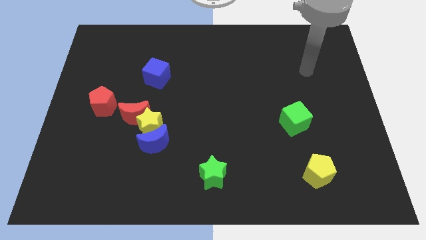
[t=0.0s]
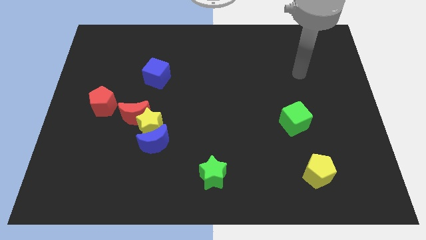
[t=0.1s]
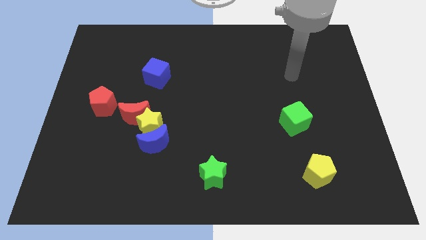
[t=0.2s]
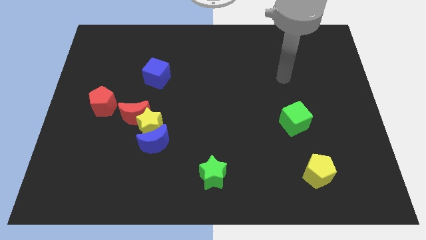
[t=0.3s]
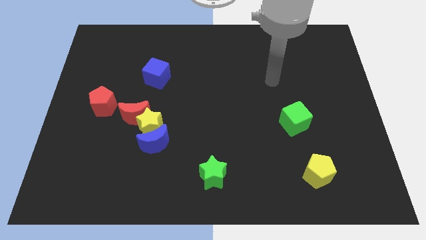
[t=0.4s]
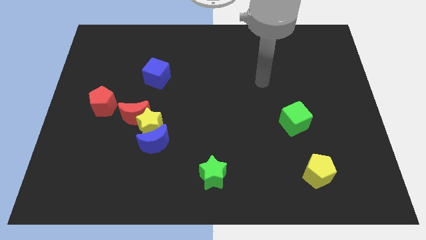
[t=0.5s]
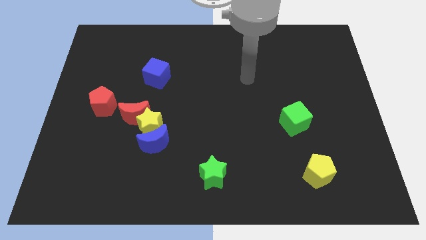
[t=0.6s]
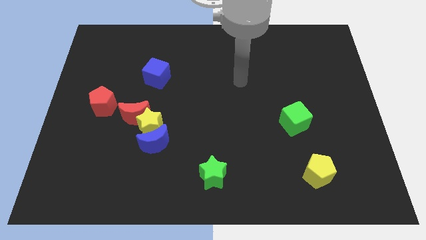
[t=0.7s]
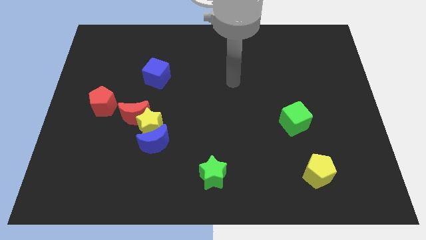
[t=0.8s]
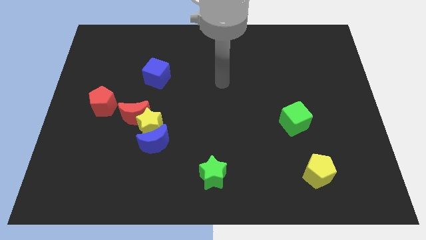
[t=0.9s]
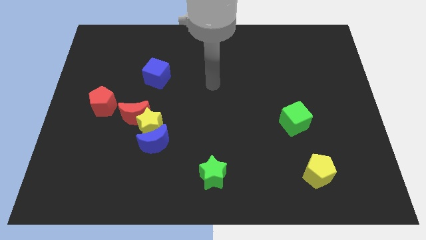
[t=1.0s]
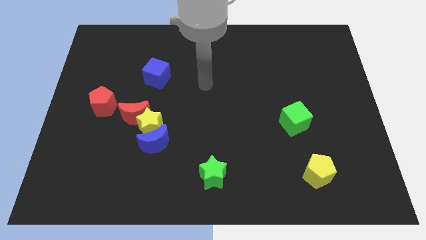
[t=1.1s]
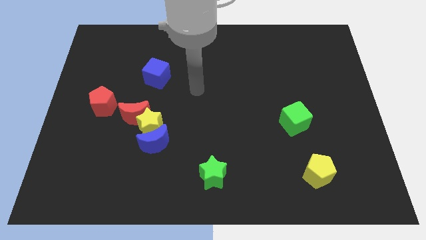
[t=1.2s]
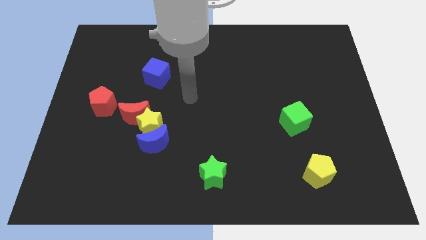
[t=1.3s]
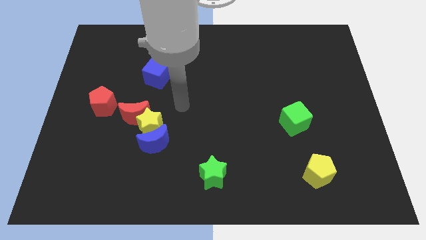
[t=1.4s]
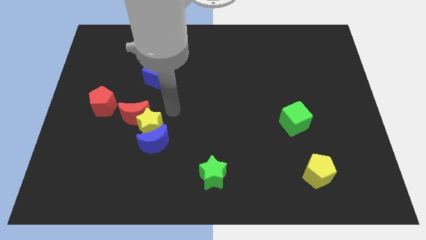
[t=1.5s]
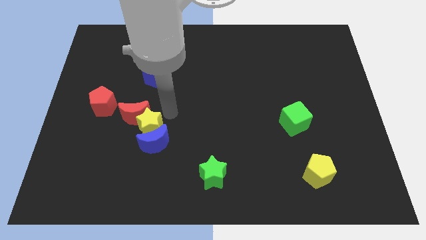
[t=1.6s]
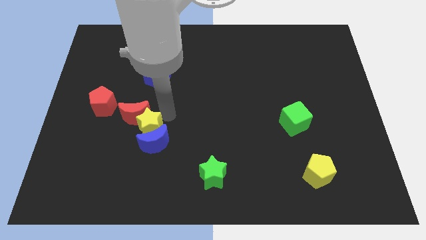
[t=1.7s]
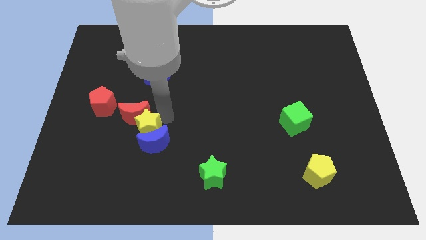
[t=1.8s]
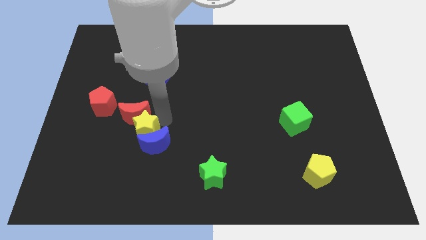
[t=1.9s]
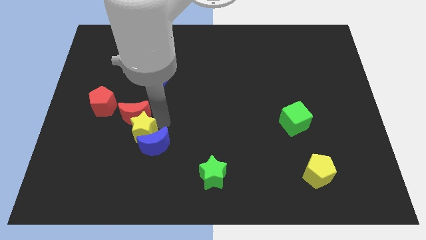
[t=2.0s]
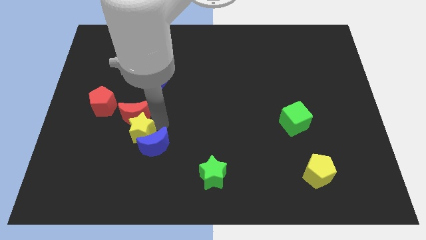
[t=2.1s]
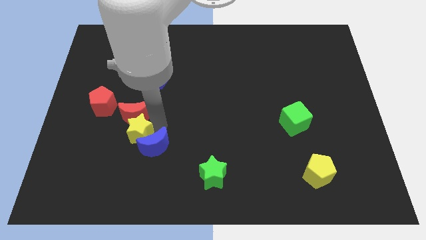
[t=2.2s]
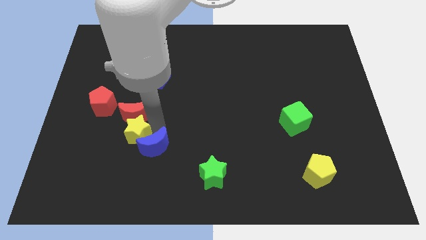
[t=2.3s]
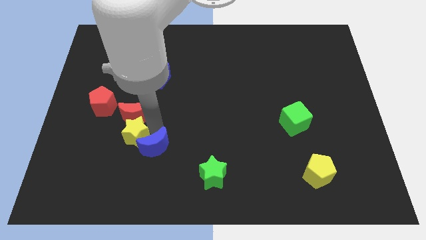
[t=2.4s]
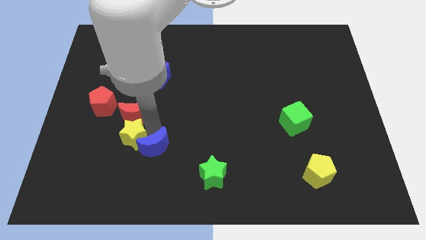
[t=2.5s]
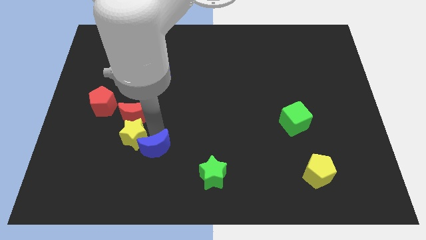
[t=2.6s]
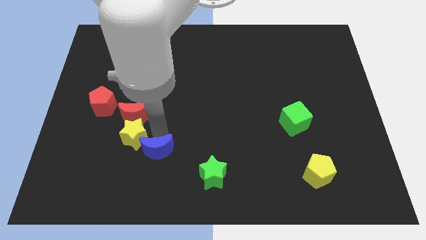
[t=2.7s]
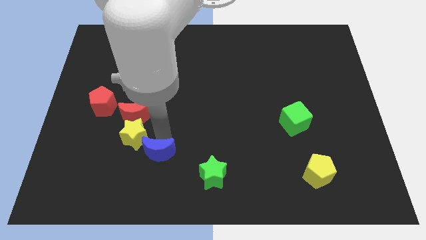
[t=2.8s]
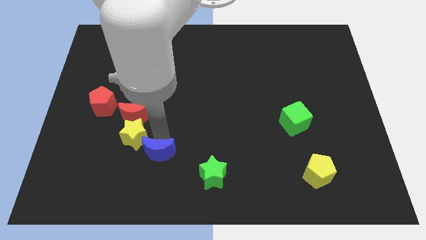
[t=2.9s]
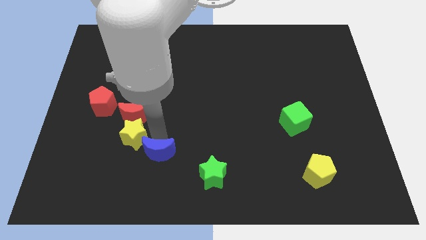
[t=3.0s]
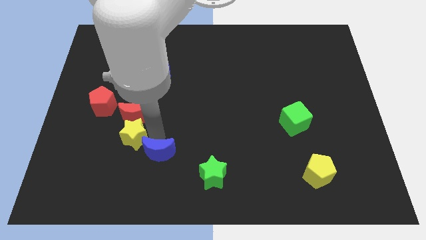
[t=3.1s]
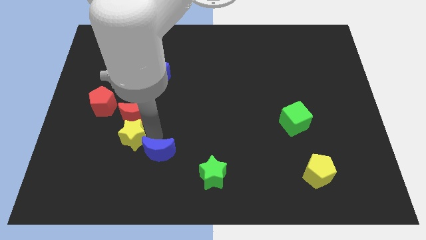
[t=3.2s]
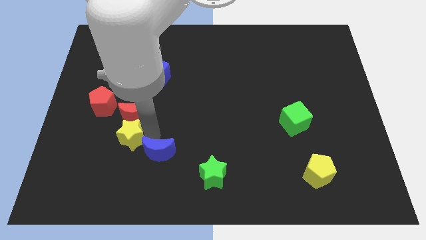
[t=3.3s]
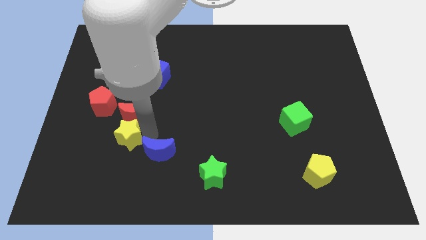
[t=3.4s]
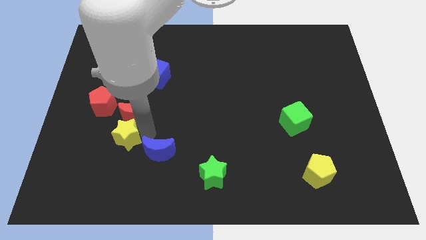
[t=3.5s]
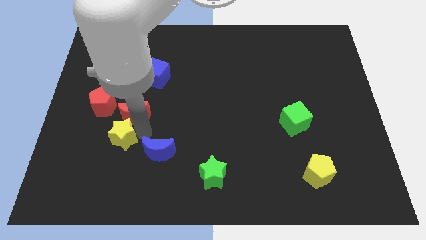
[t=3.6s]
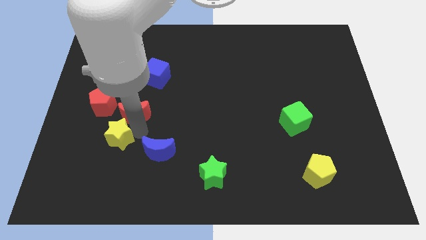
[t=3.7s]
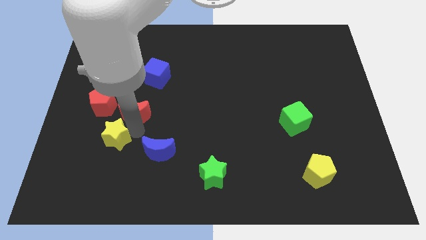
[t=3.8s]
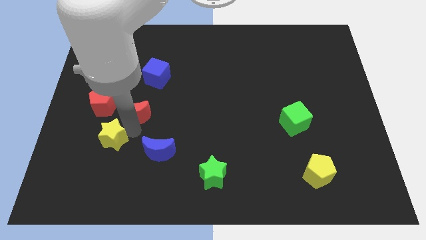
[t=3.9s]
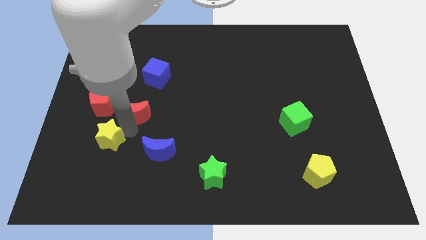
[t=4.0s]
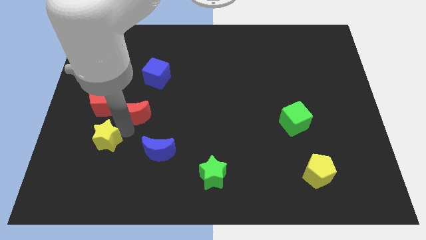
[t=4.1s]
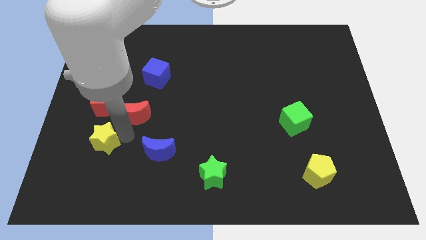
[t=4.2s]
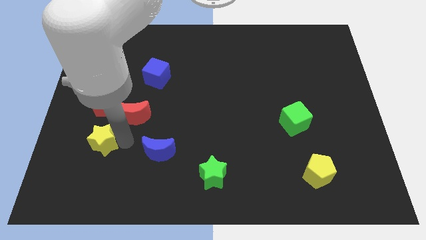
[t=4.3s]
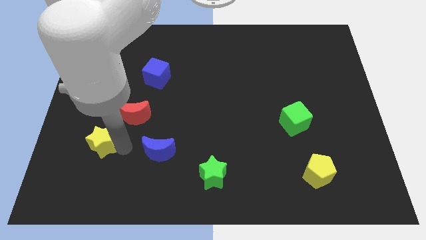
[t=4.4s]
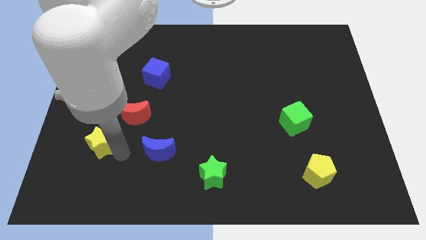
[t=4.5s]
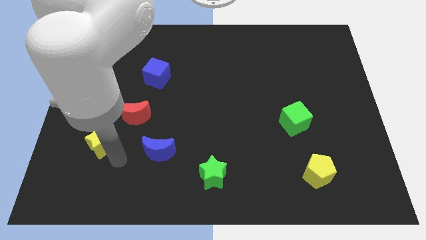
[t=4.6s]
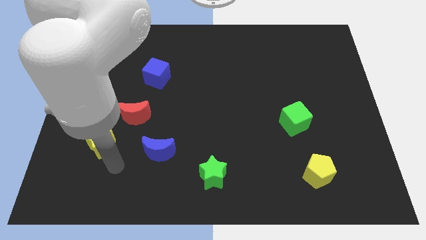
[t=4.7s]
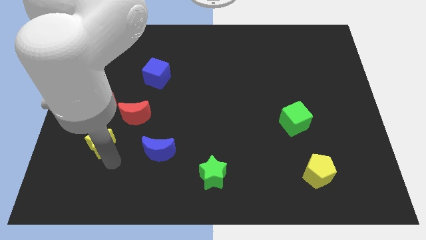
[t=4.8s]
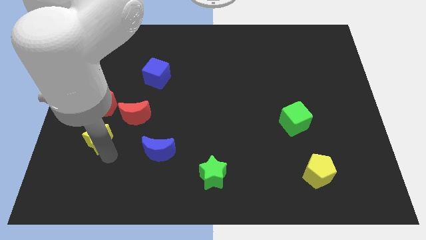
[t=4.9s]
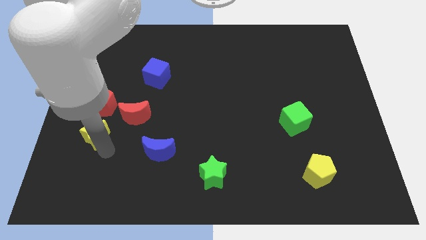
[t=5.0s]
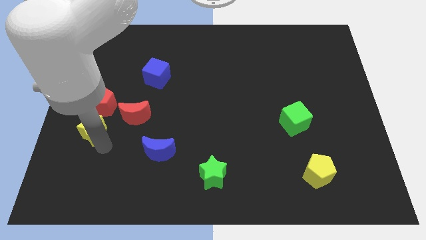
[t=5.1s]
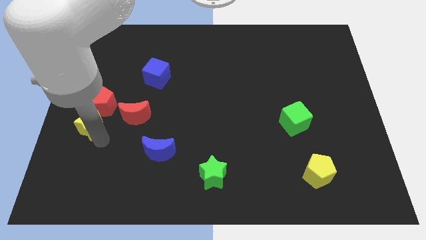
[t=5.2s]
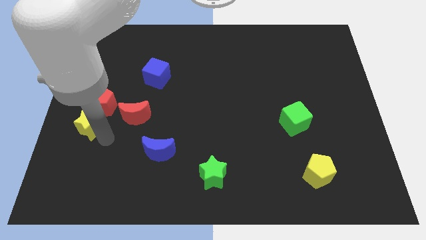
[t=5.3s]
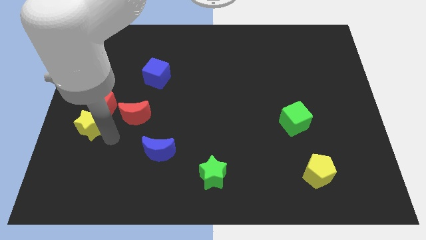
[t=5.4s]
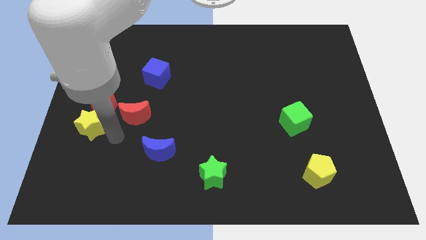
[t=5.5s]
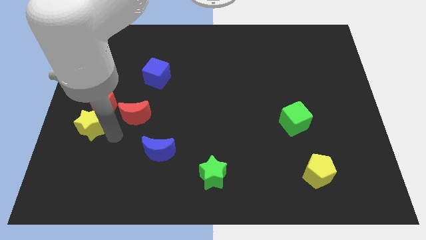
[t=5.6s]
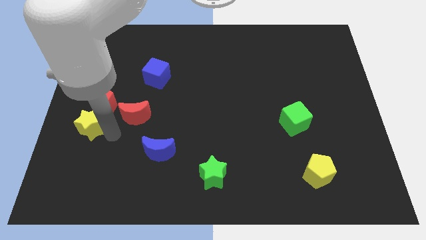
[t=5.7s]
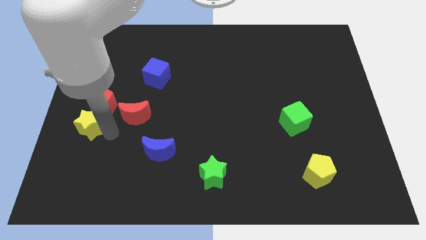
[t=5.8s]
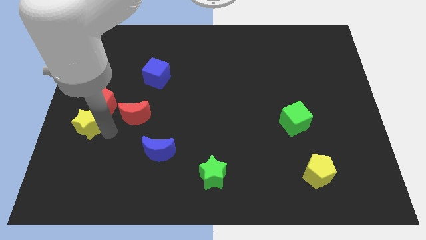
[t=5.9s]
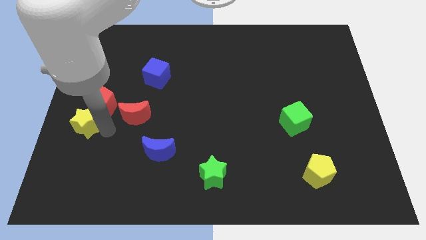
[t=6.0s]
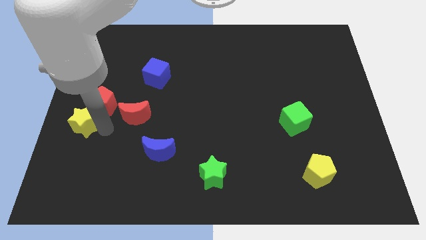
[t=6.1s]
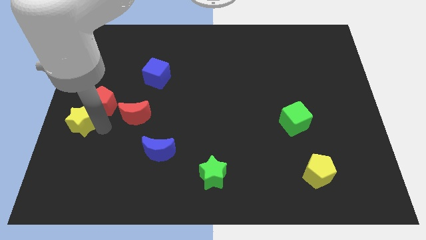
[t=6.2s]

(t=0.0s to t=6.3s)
slide the yellow star somewhat up and left

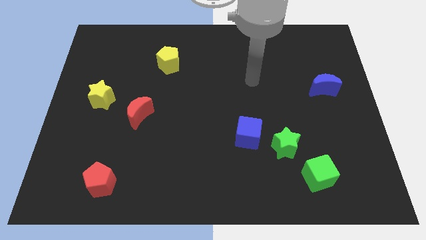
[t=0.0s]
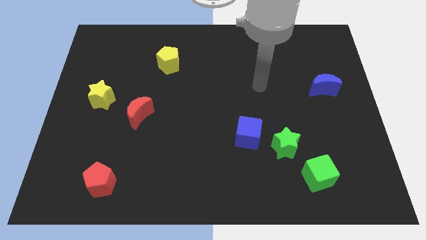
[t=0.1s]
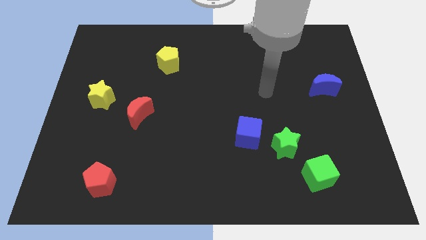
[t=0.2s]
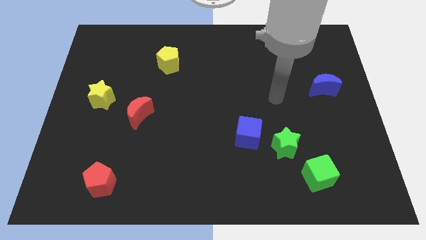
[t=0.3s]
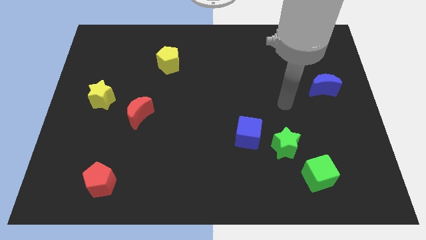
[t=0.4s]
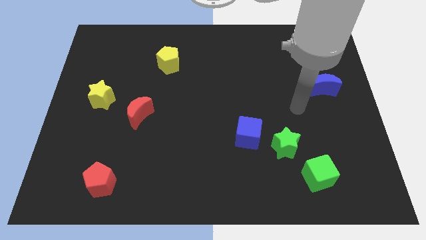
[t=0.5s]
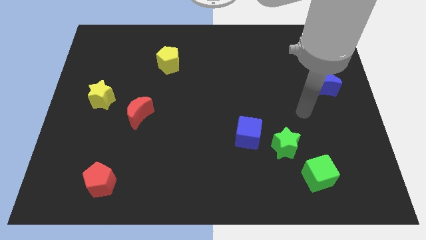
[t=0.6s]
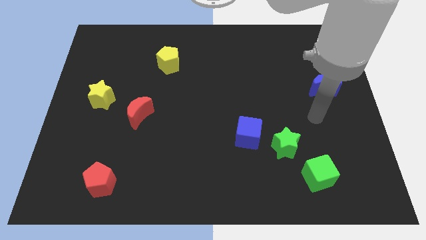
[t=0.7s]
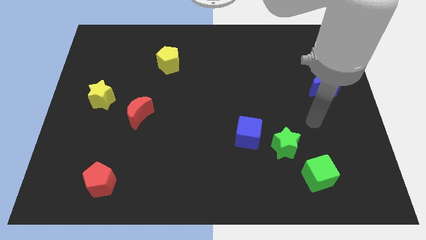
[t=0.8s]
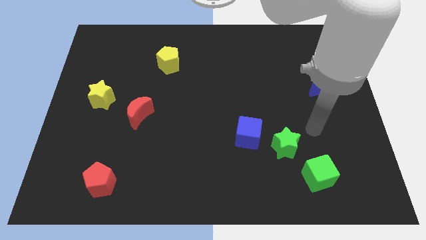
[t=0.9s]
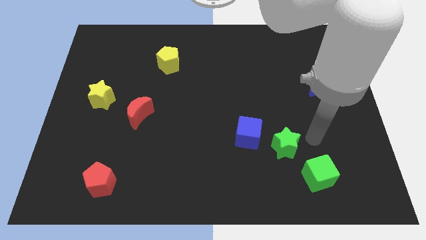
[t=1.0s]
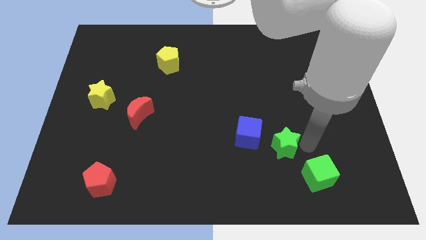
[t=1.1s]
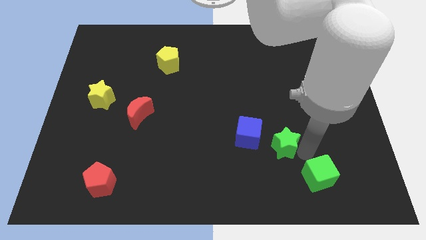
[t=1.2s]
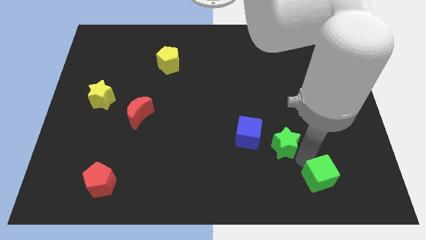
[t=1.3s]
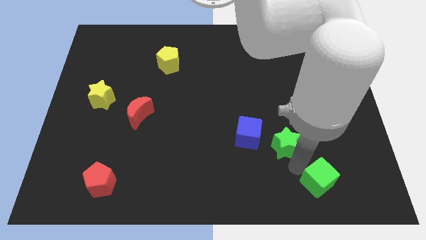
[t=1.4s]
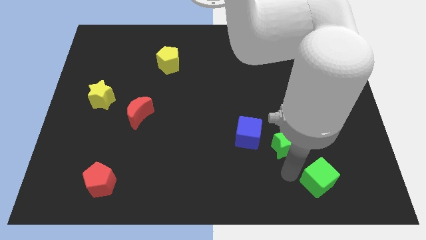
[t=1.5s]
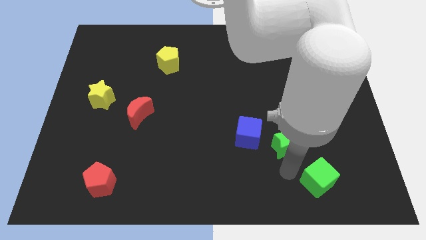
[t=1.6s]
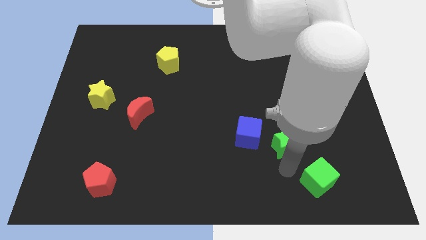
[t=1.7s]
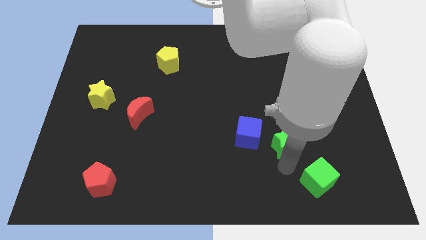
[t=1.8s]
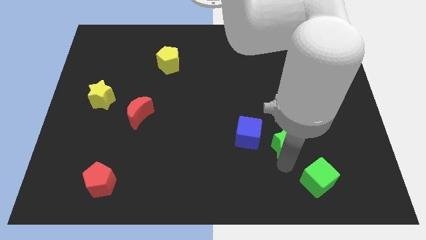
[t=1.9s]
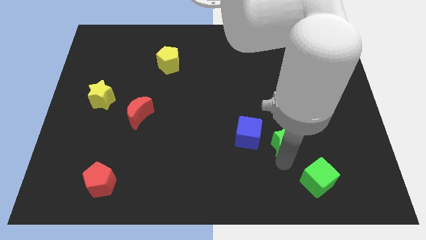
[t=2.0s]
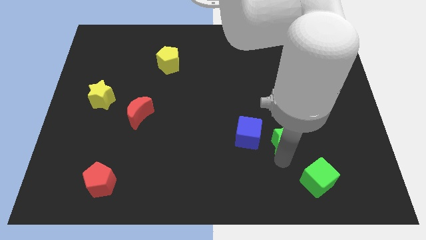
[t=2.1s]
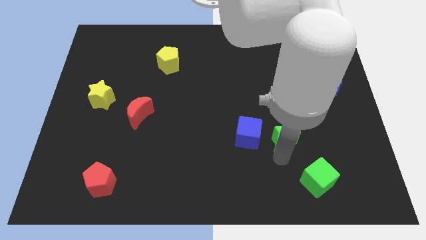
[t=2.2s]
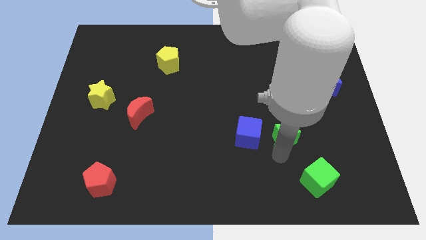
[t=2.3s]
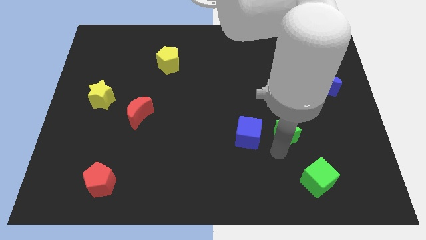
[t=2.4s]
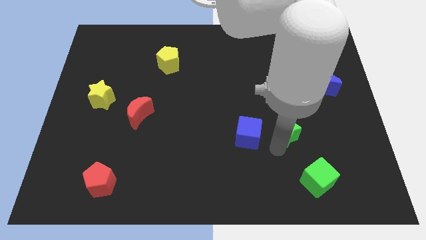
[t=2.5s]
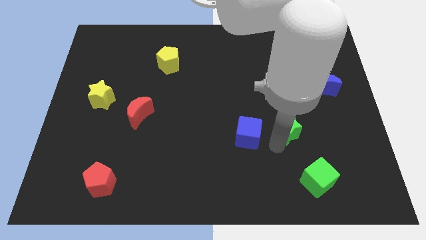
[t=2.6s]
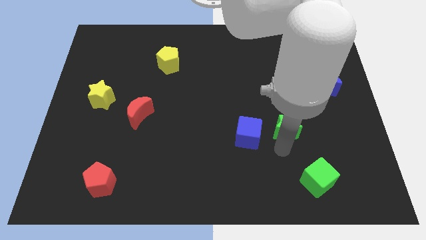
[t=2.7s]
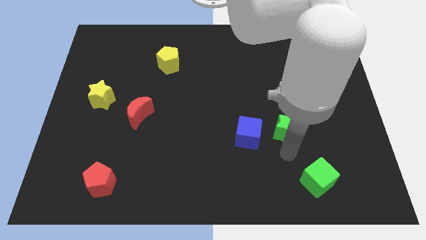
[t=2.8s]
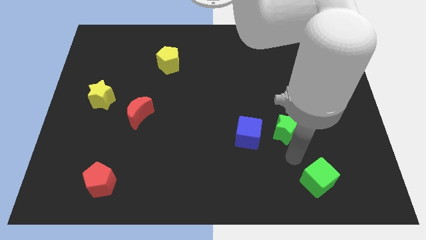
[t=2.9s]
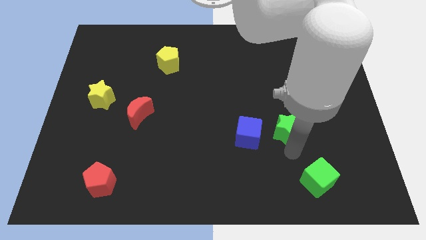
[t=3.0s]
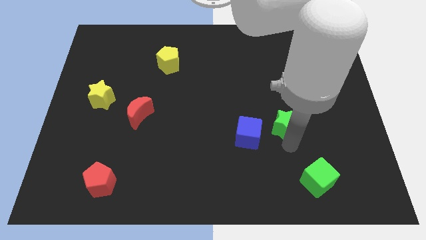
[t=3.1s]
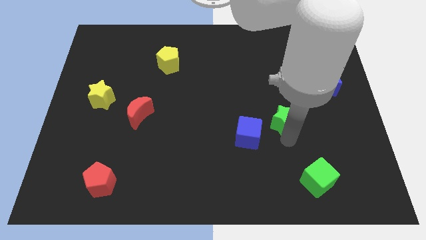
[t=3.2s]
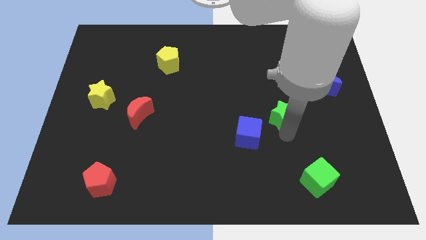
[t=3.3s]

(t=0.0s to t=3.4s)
push the green star up a bit
